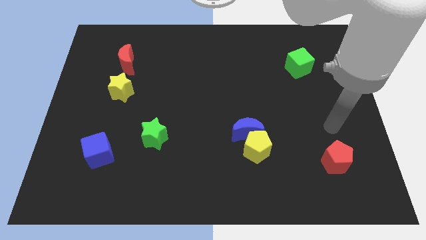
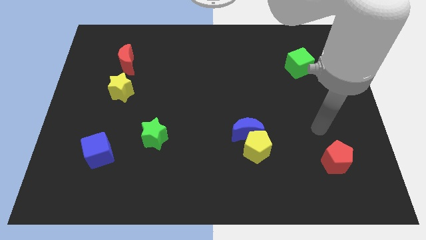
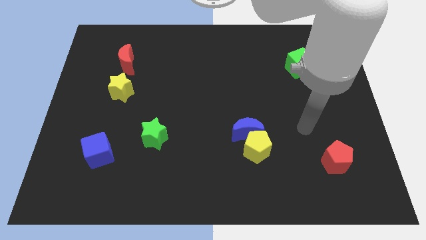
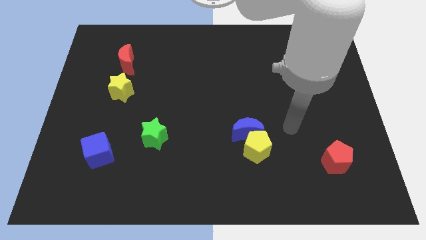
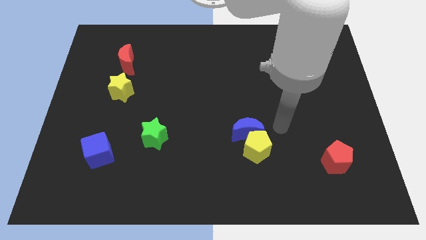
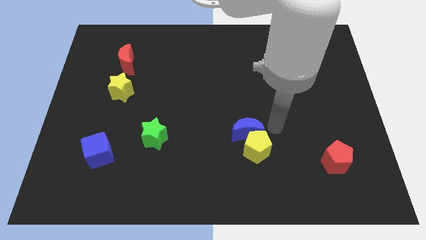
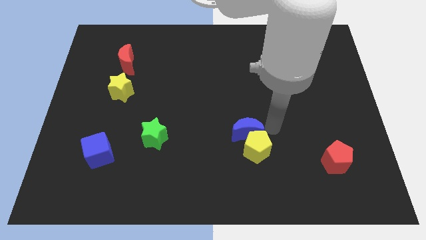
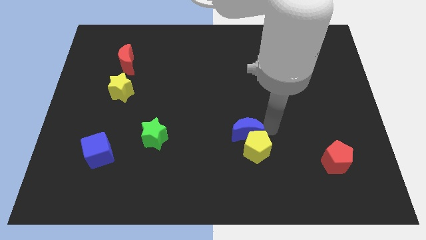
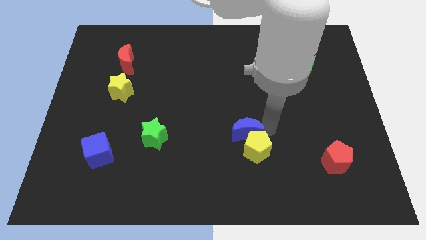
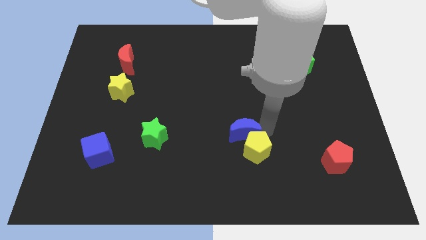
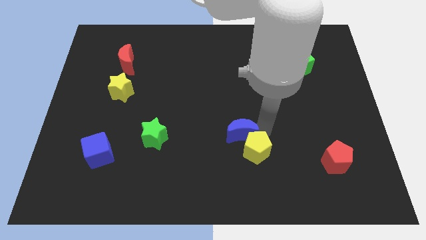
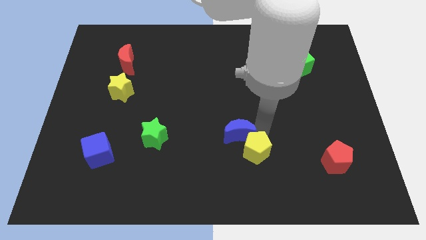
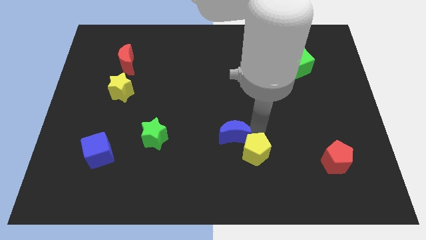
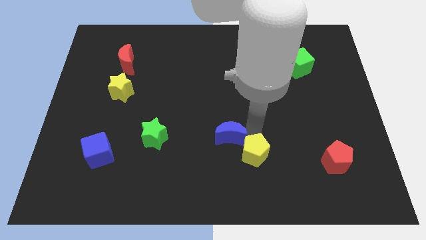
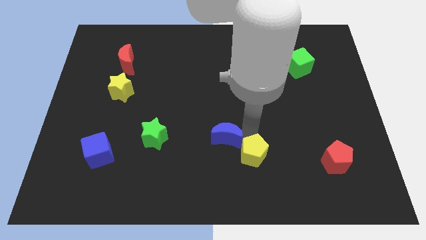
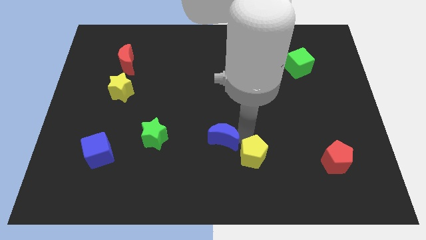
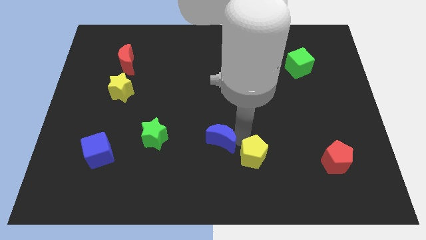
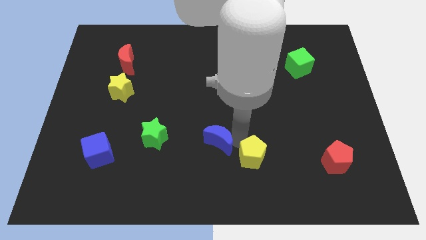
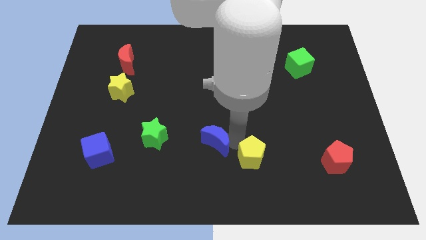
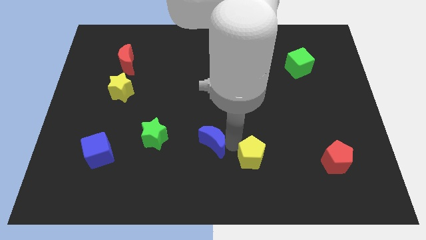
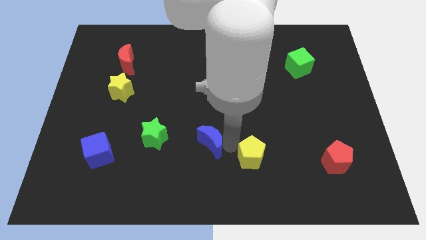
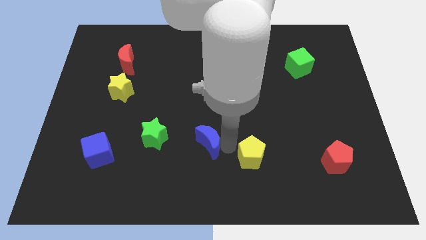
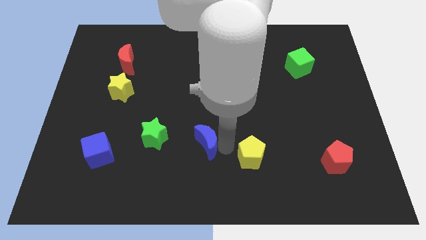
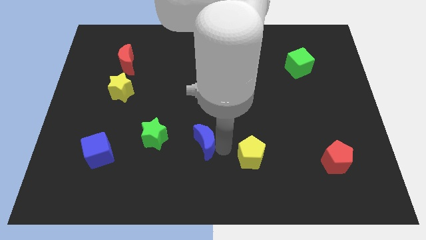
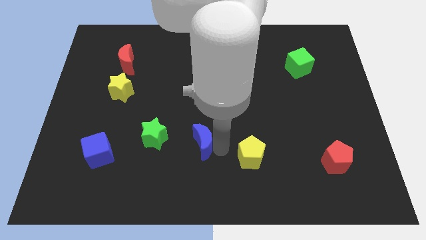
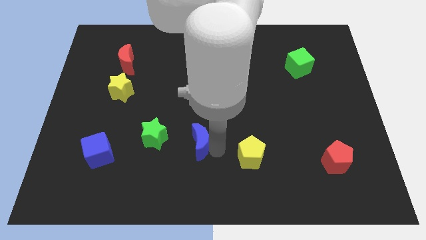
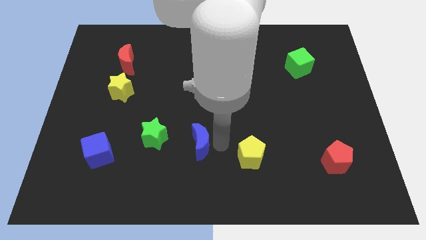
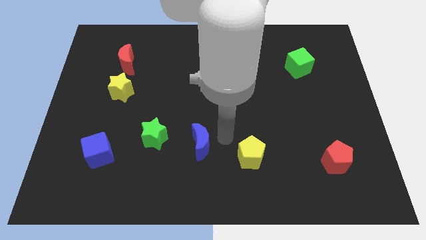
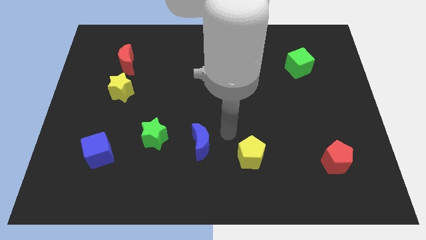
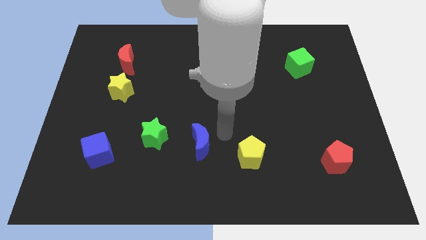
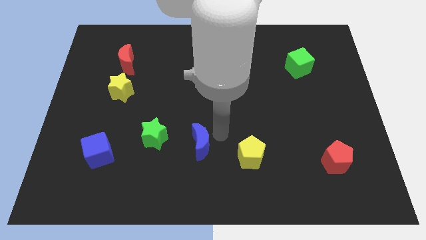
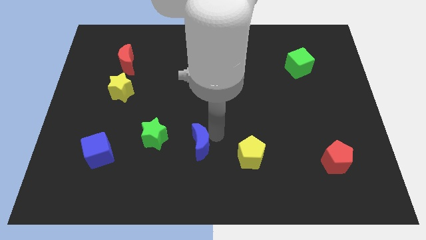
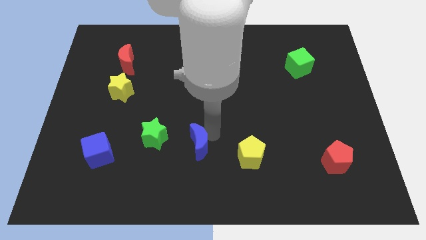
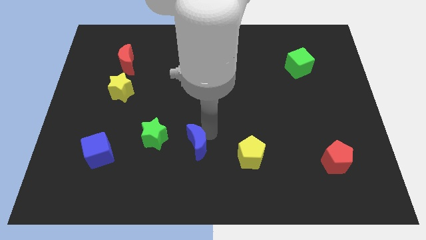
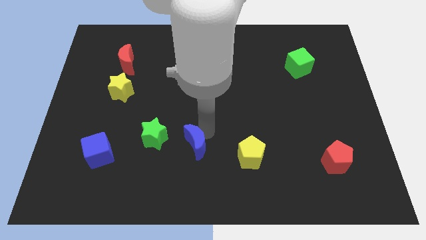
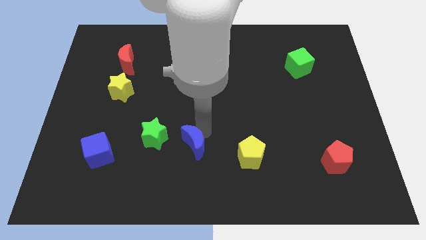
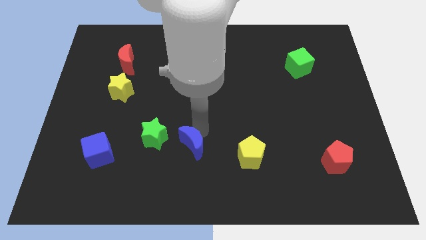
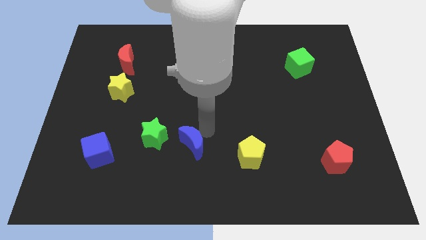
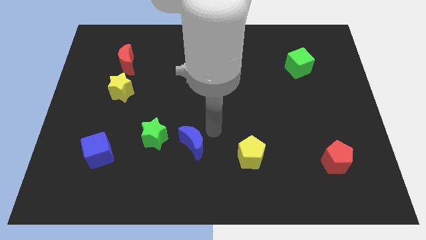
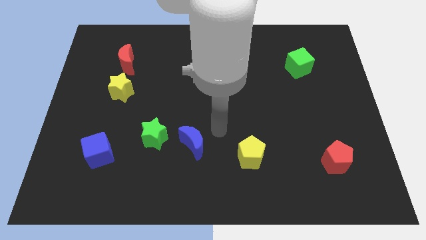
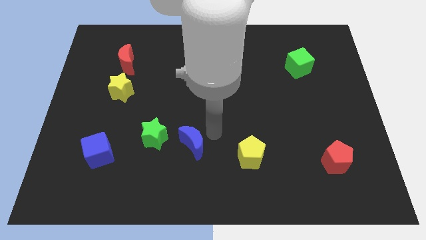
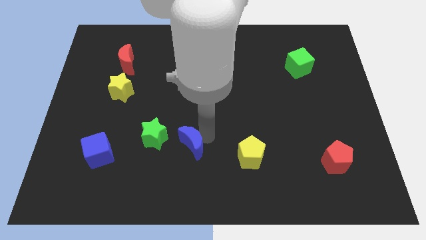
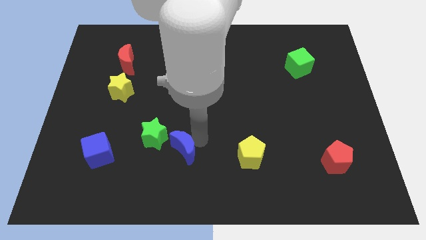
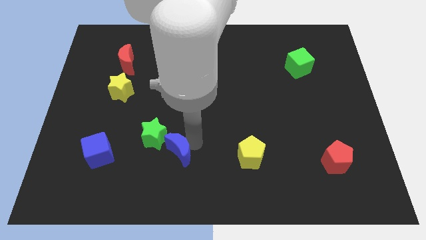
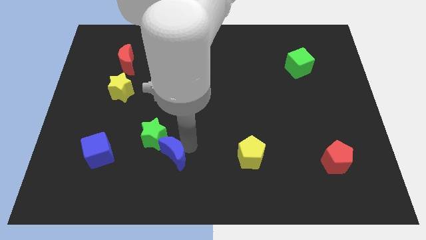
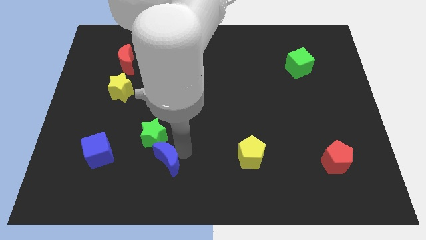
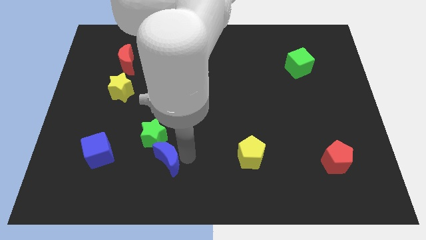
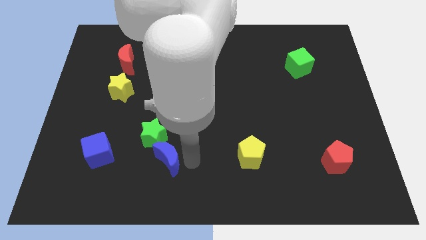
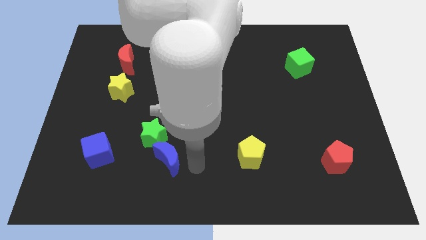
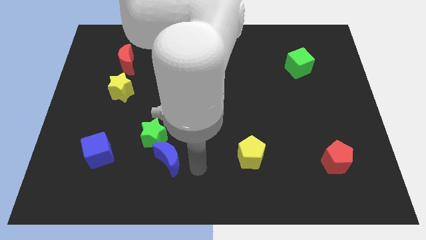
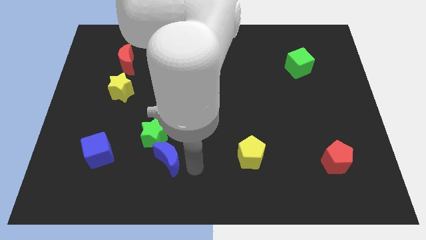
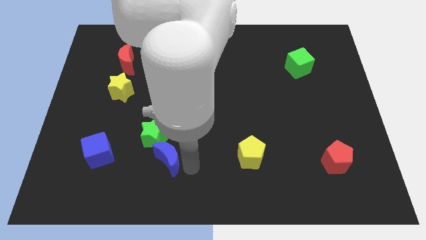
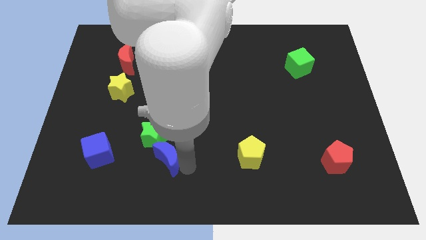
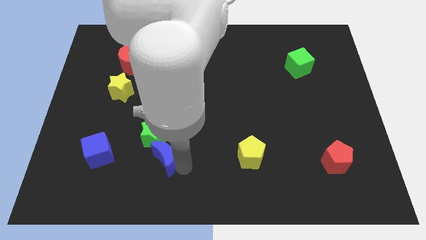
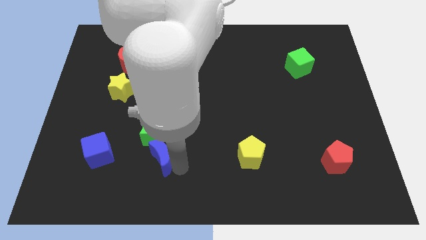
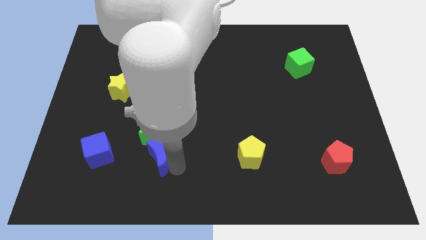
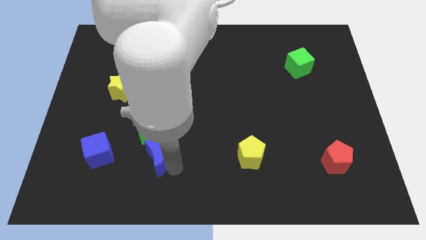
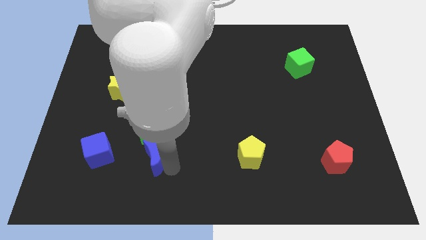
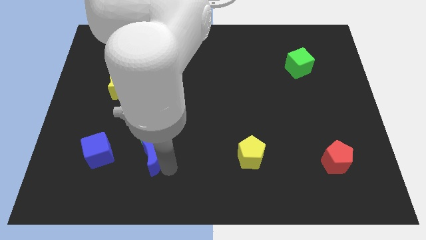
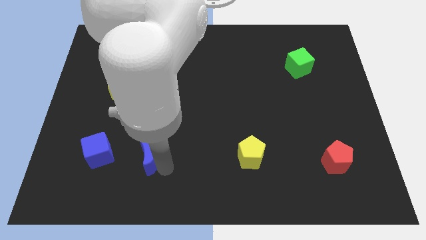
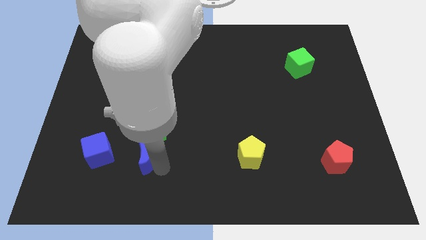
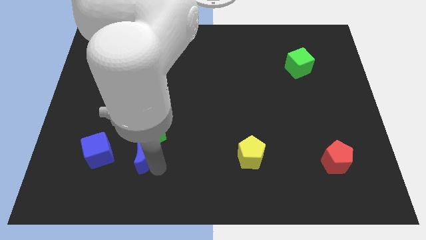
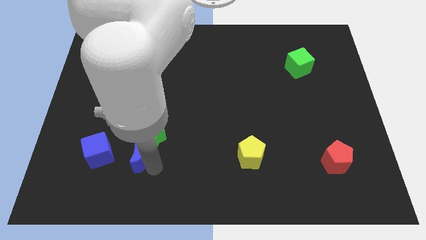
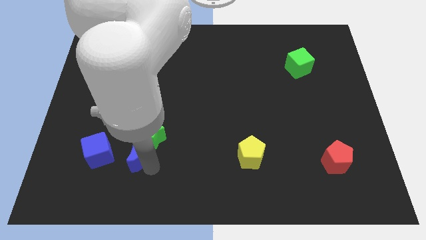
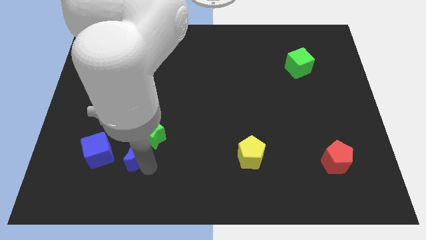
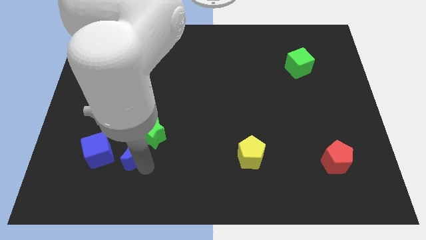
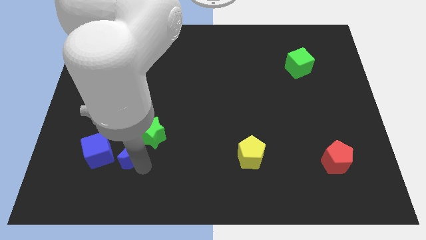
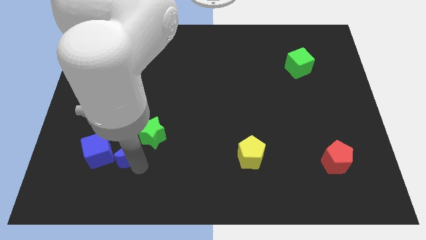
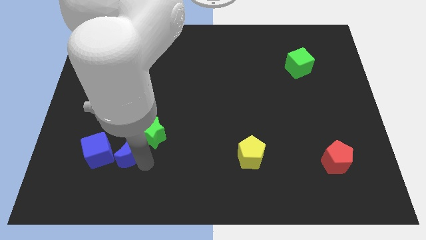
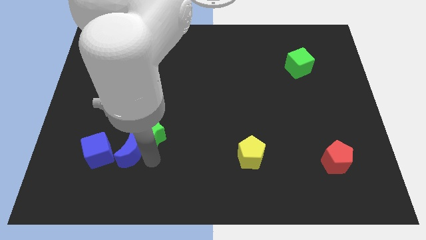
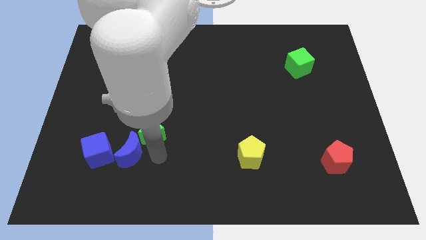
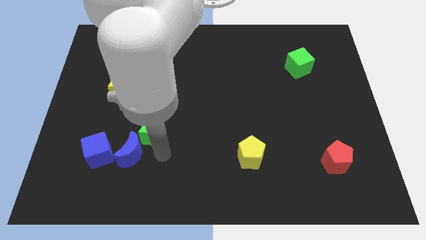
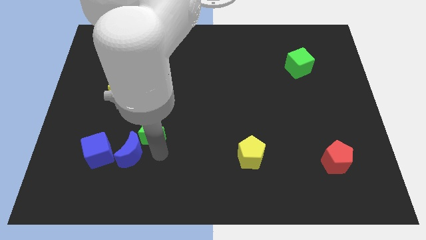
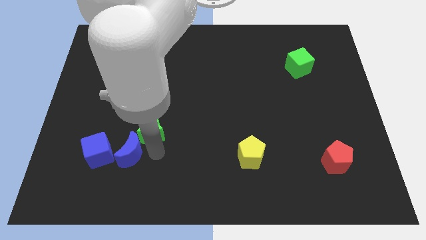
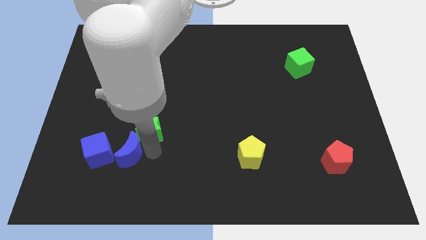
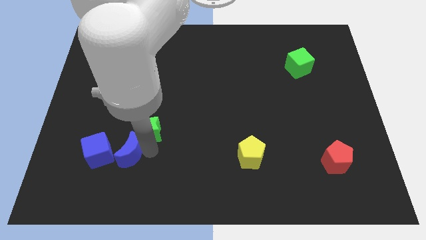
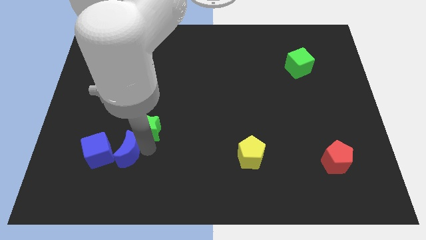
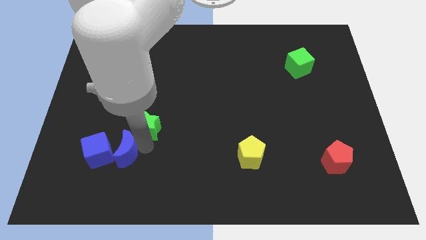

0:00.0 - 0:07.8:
put the blue moon to the blue cube
